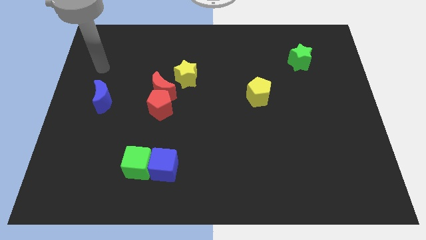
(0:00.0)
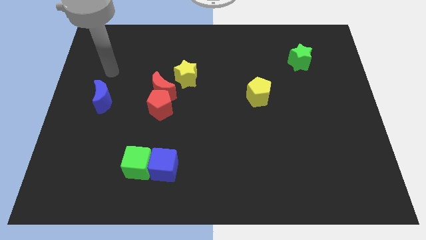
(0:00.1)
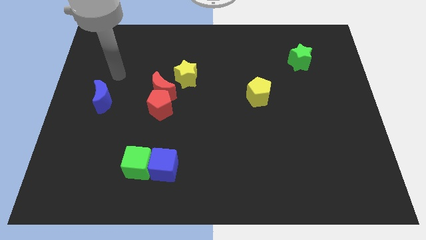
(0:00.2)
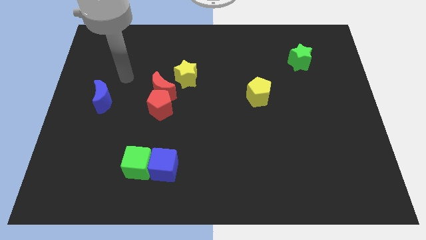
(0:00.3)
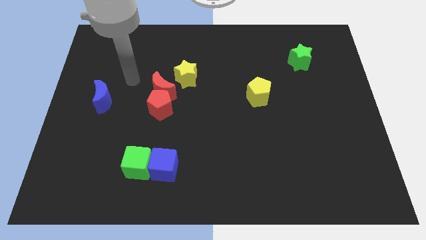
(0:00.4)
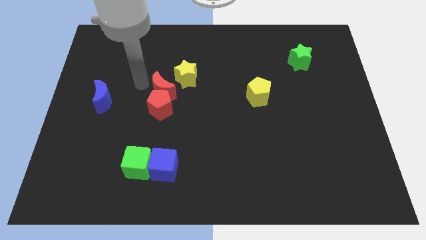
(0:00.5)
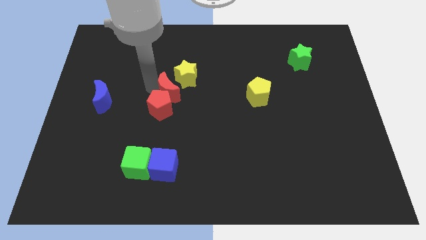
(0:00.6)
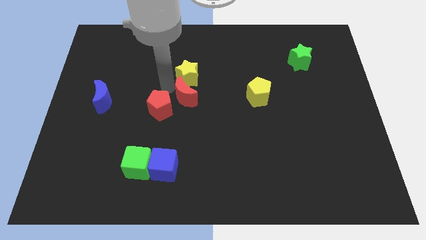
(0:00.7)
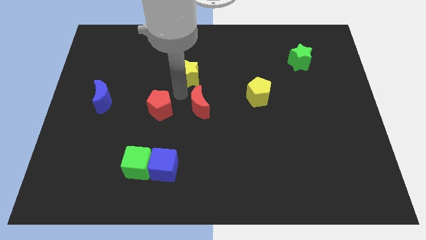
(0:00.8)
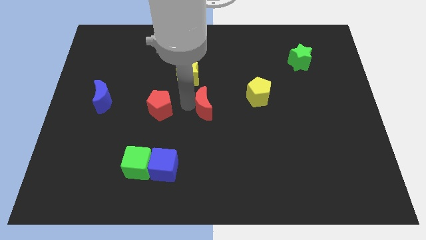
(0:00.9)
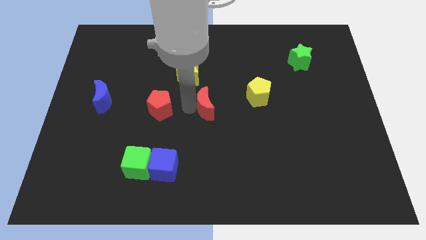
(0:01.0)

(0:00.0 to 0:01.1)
move the red pentagon away from the red moon

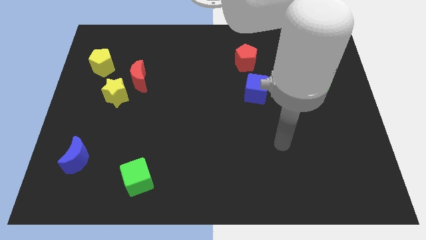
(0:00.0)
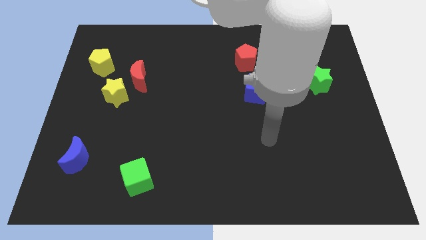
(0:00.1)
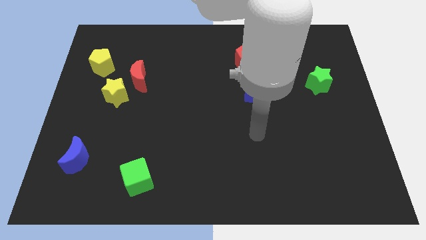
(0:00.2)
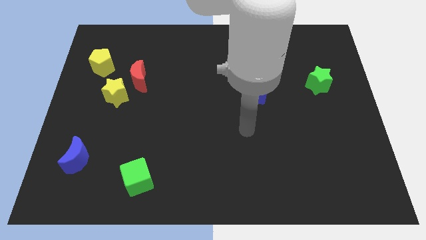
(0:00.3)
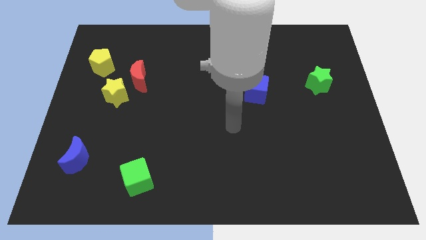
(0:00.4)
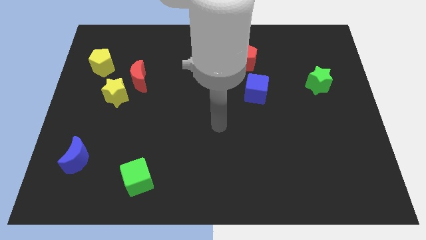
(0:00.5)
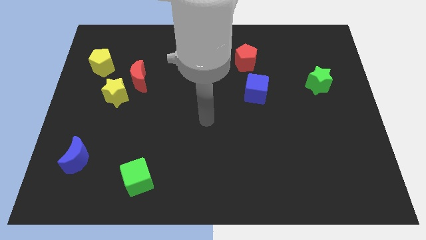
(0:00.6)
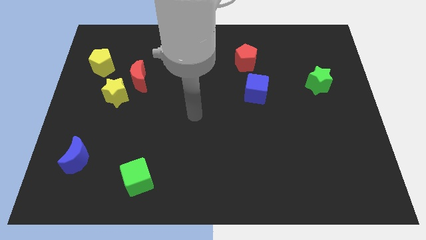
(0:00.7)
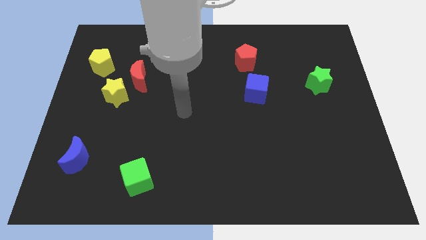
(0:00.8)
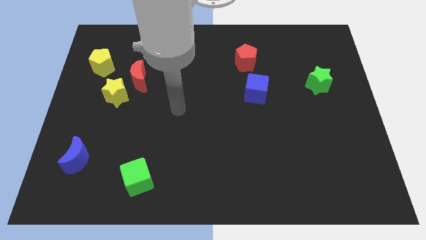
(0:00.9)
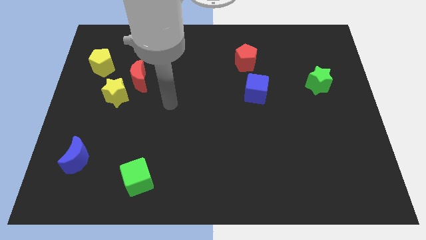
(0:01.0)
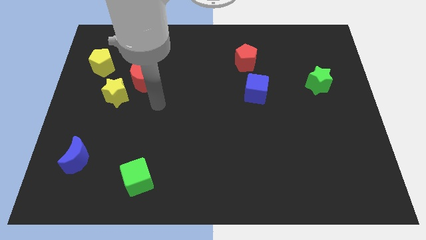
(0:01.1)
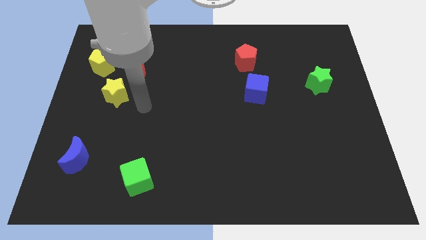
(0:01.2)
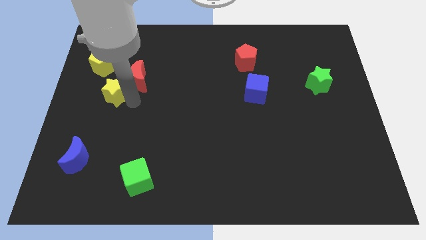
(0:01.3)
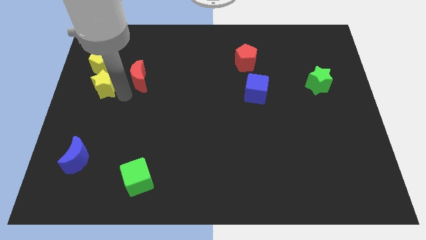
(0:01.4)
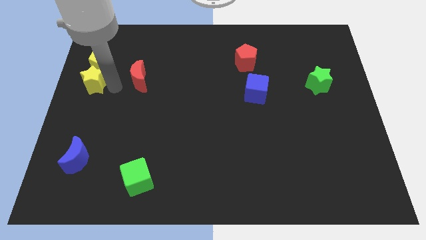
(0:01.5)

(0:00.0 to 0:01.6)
separate the red moon from the yellow star

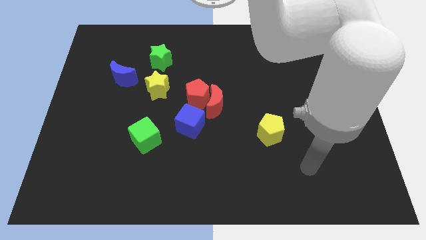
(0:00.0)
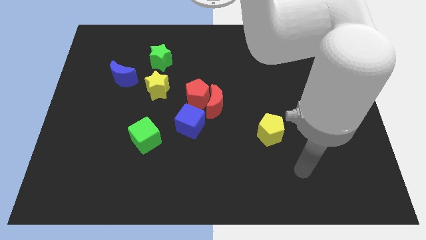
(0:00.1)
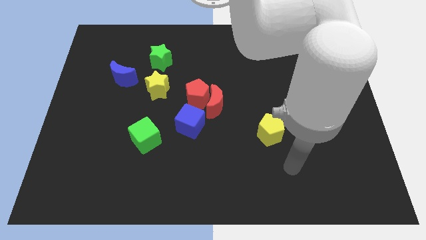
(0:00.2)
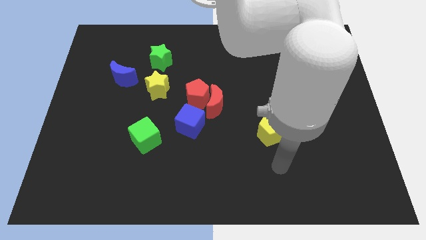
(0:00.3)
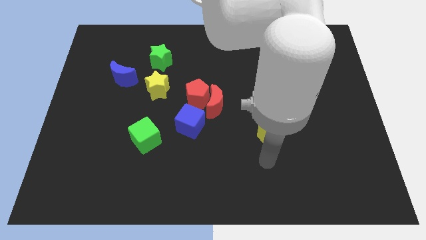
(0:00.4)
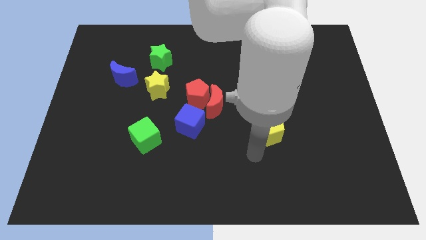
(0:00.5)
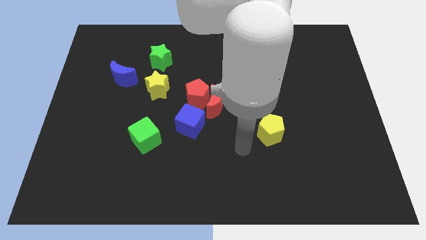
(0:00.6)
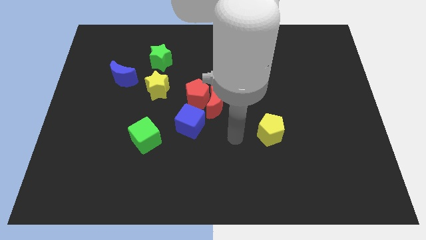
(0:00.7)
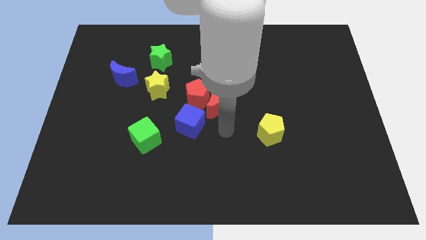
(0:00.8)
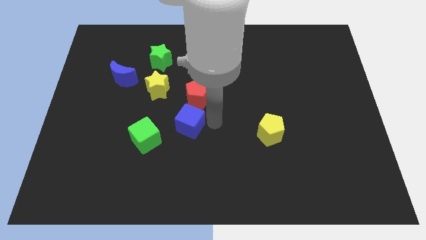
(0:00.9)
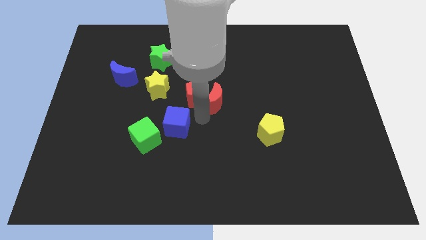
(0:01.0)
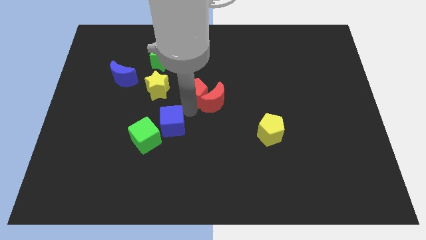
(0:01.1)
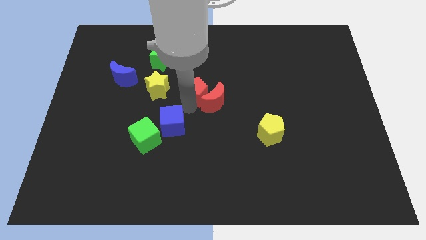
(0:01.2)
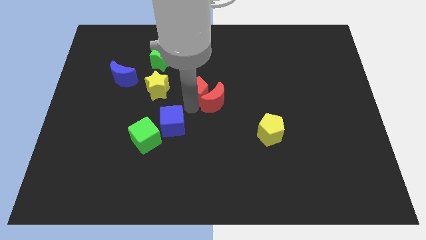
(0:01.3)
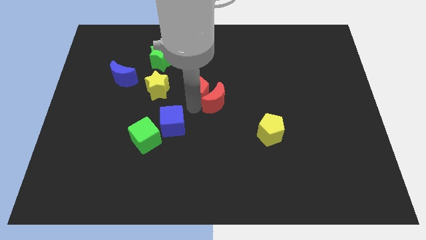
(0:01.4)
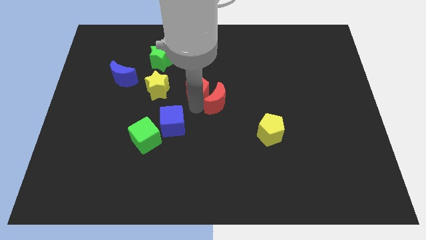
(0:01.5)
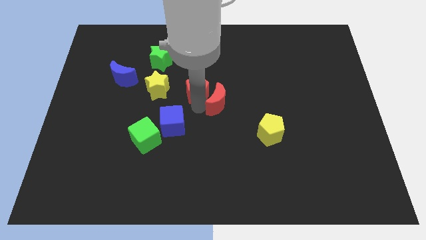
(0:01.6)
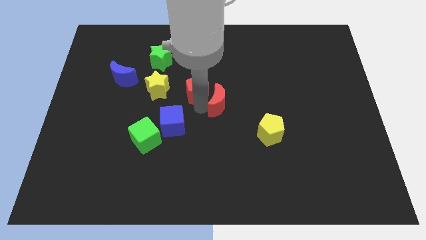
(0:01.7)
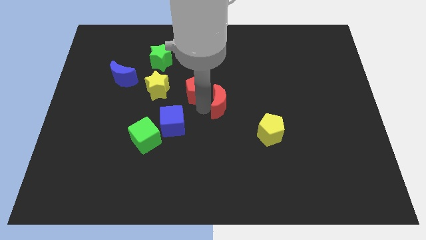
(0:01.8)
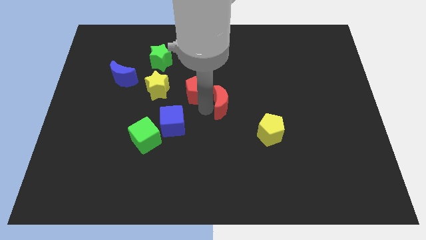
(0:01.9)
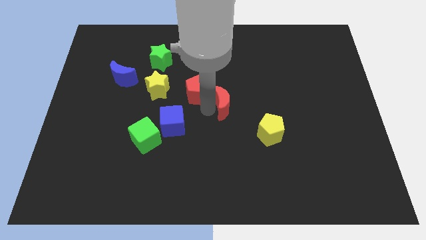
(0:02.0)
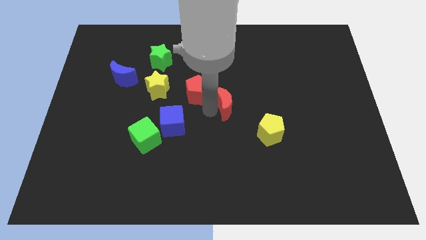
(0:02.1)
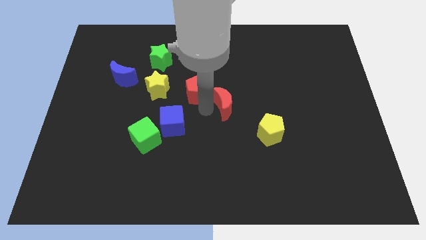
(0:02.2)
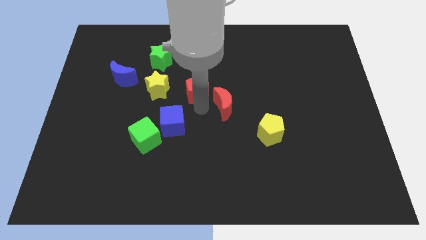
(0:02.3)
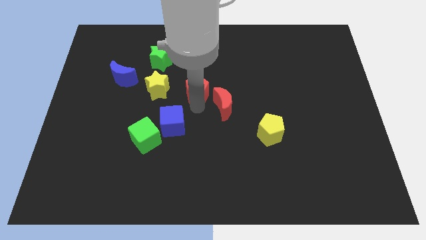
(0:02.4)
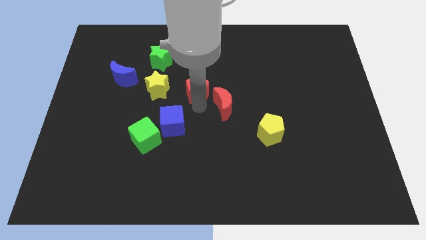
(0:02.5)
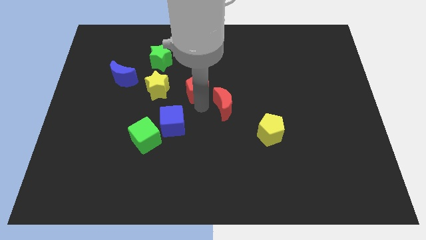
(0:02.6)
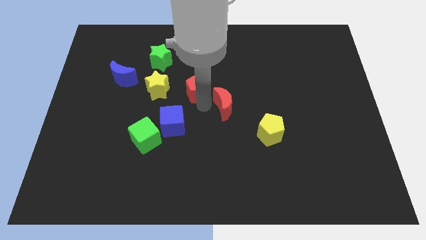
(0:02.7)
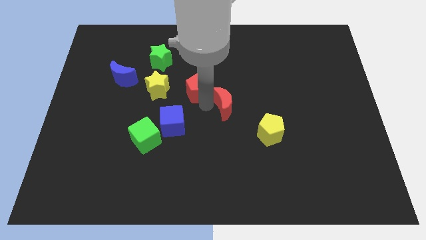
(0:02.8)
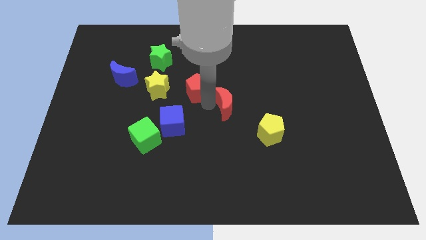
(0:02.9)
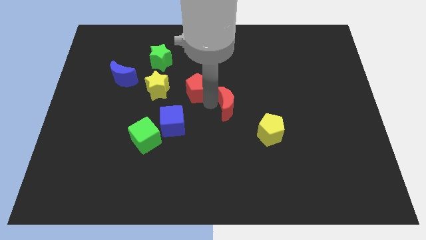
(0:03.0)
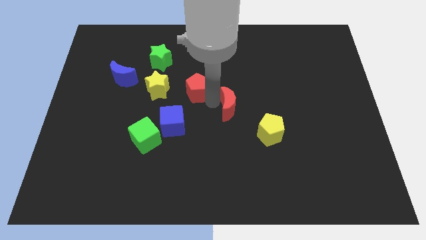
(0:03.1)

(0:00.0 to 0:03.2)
pull the red moon apart from the red pentagon and blue cube

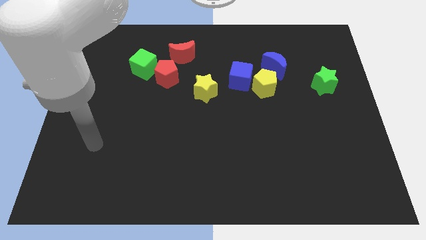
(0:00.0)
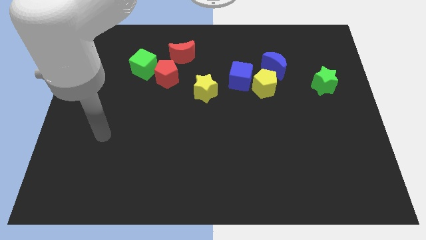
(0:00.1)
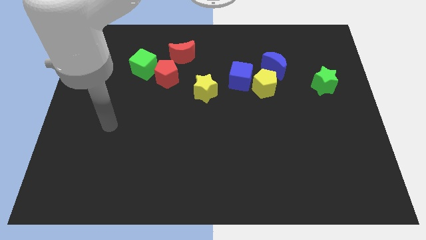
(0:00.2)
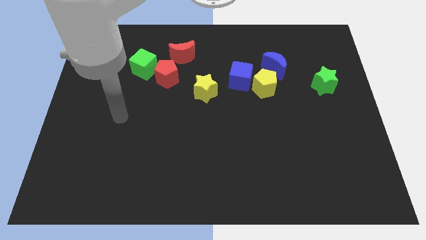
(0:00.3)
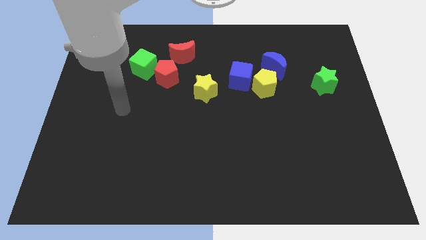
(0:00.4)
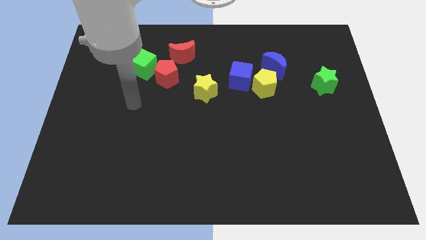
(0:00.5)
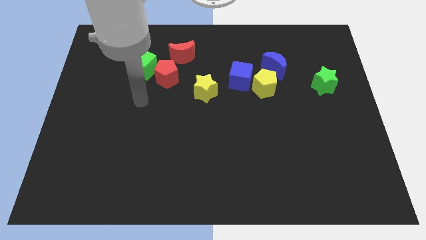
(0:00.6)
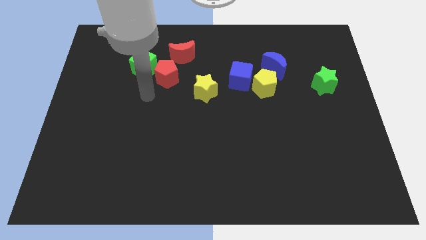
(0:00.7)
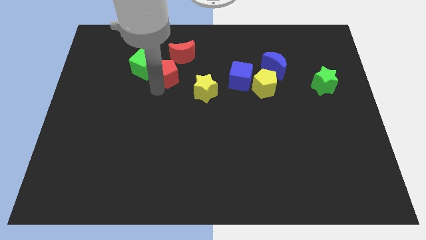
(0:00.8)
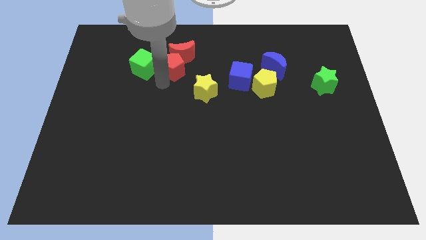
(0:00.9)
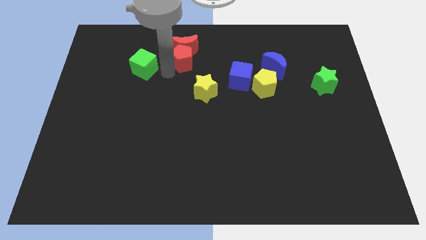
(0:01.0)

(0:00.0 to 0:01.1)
separate the green cube from the red pentagon

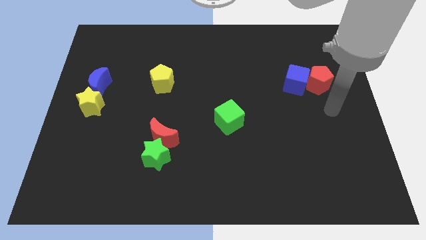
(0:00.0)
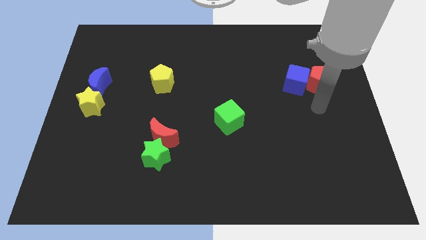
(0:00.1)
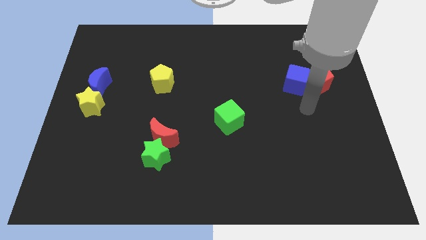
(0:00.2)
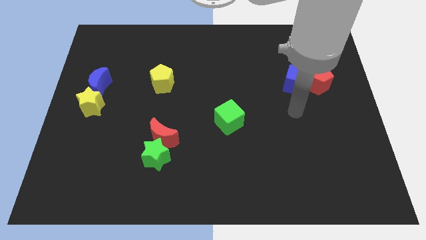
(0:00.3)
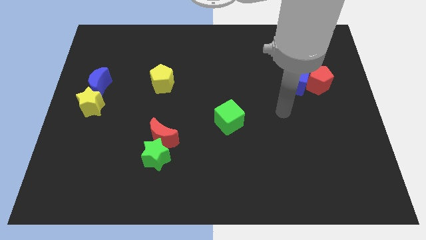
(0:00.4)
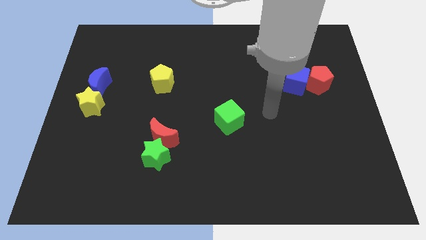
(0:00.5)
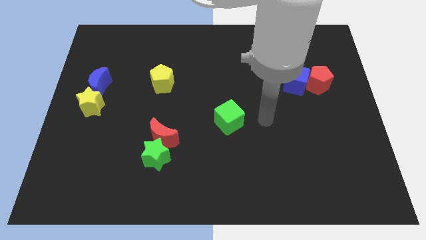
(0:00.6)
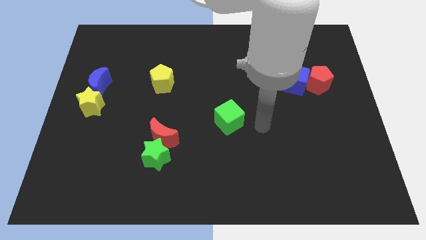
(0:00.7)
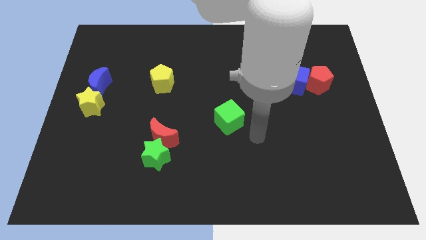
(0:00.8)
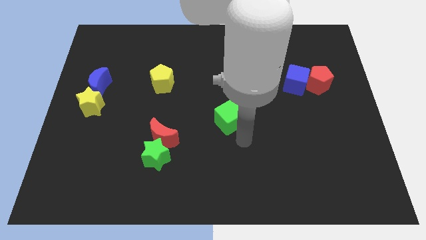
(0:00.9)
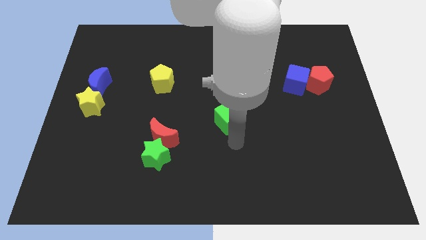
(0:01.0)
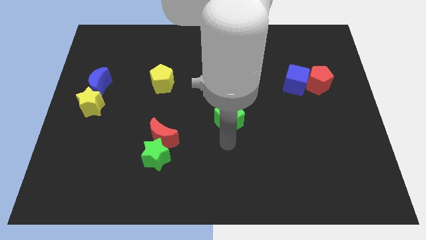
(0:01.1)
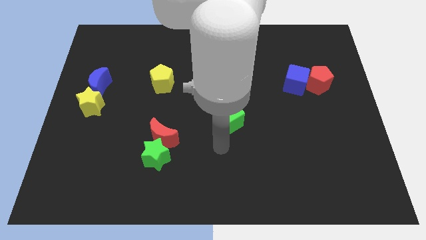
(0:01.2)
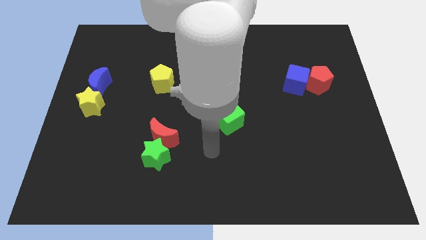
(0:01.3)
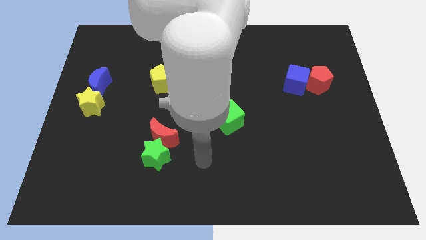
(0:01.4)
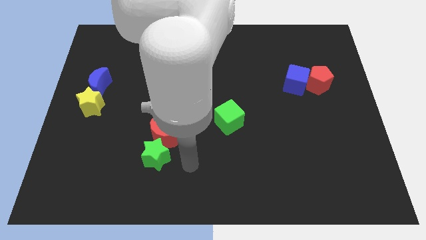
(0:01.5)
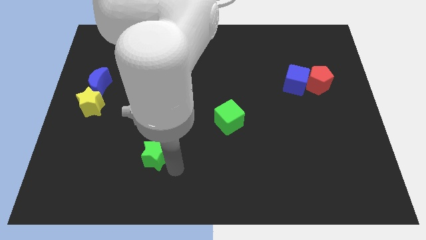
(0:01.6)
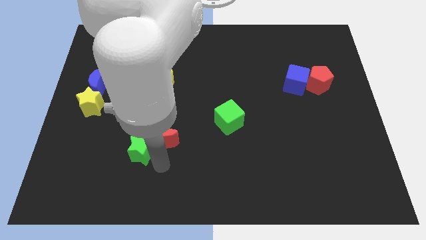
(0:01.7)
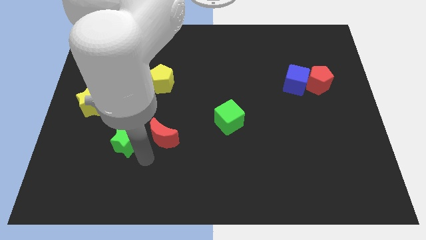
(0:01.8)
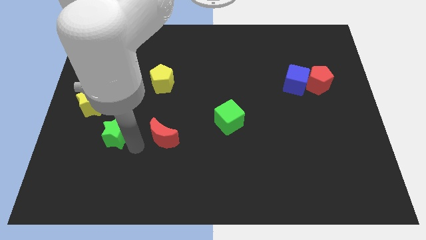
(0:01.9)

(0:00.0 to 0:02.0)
pull the red moon apart from the green star

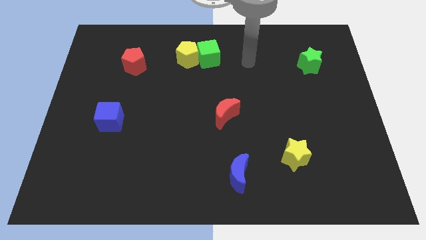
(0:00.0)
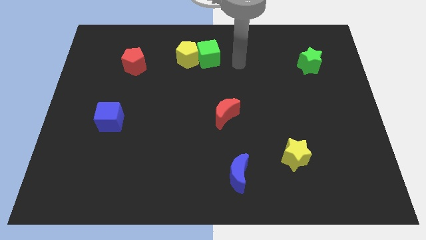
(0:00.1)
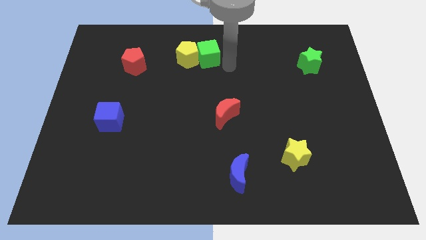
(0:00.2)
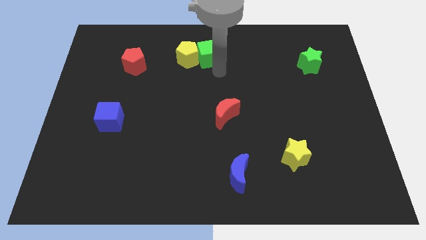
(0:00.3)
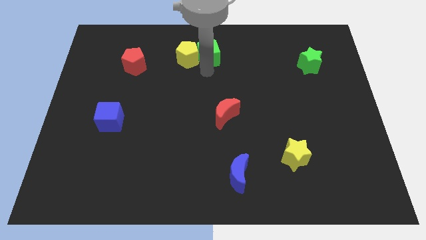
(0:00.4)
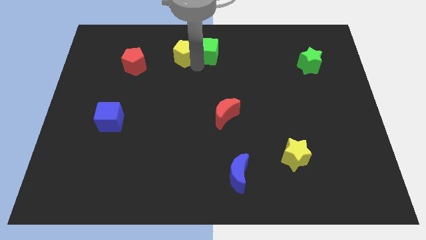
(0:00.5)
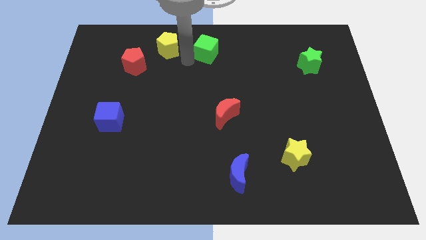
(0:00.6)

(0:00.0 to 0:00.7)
separate the green cube from the yellow pentagon
